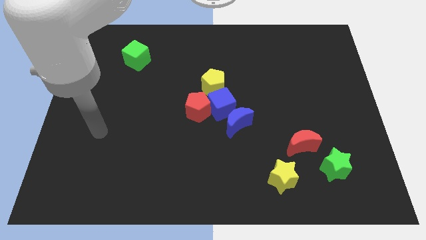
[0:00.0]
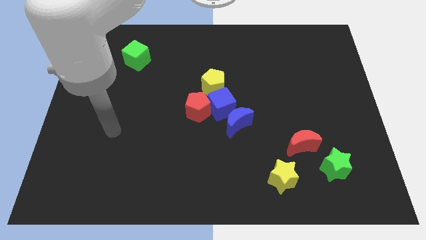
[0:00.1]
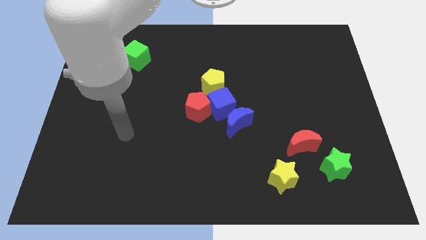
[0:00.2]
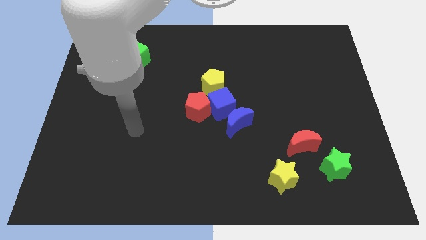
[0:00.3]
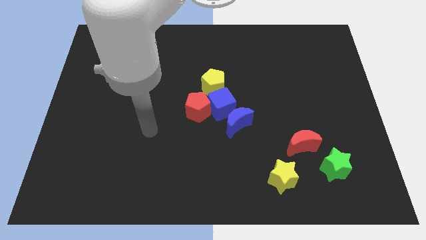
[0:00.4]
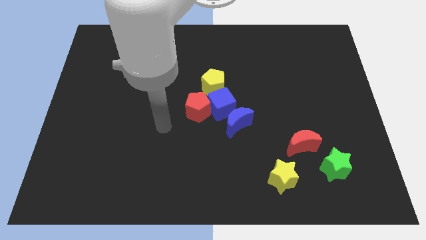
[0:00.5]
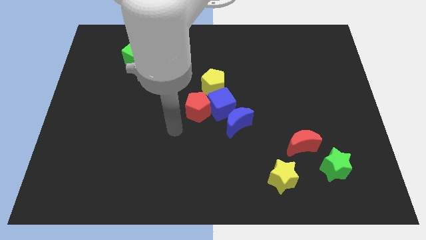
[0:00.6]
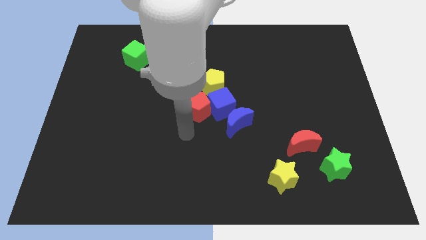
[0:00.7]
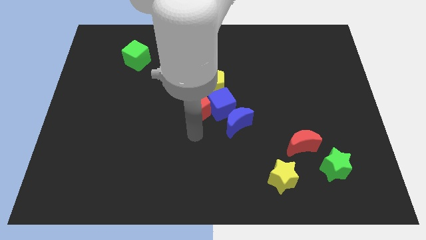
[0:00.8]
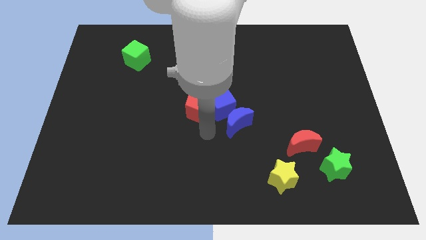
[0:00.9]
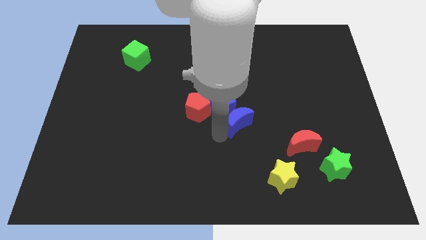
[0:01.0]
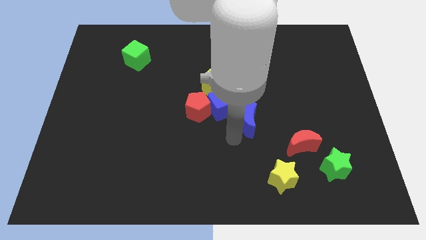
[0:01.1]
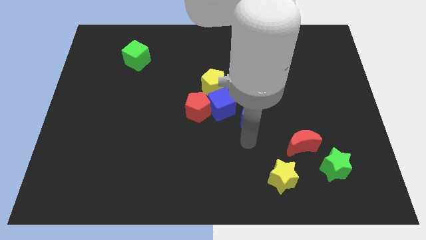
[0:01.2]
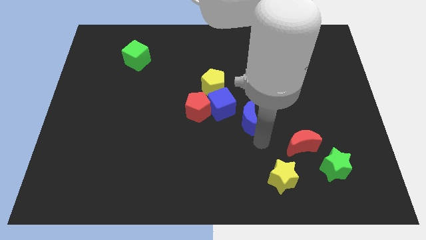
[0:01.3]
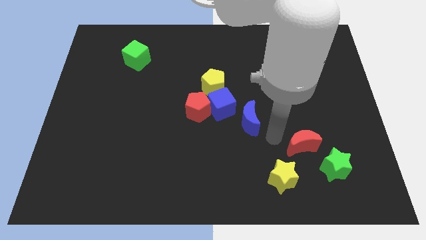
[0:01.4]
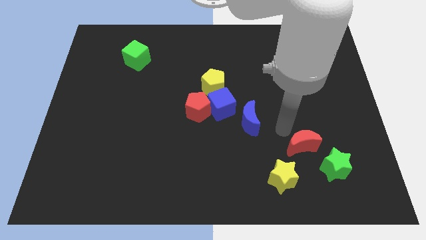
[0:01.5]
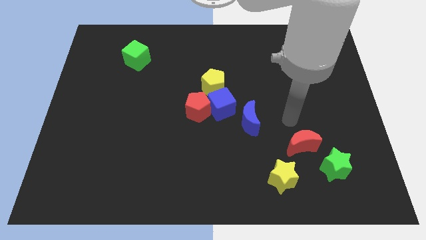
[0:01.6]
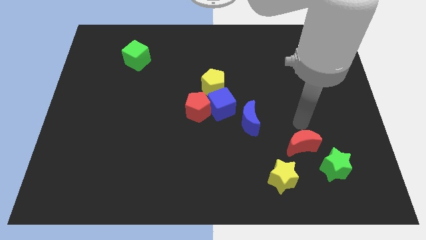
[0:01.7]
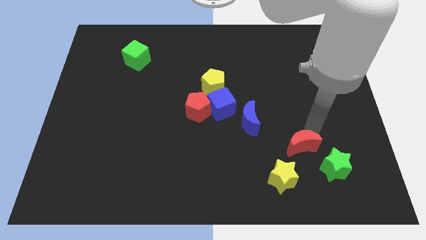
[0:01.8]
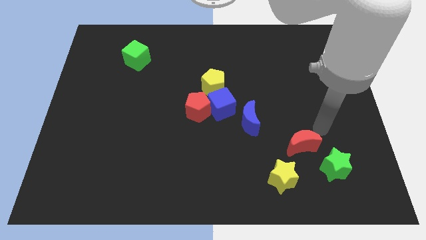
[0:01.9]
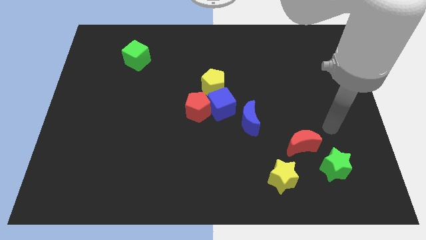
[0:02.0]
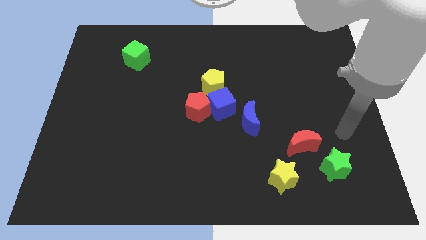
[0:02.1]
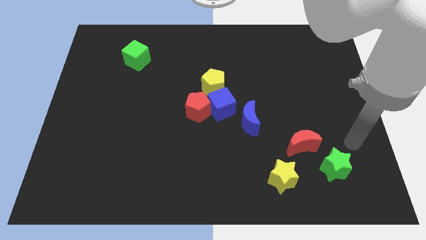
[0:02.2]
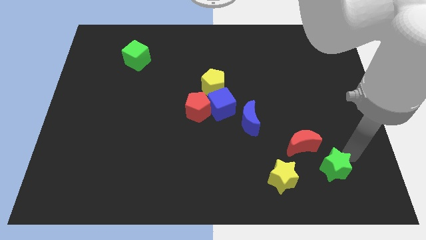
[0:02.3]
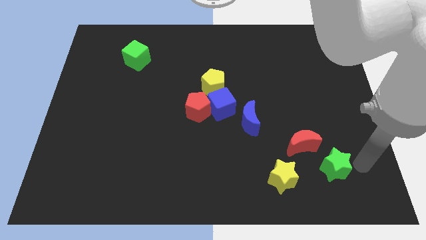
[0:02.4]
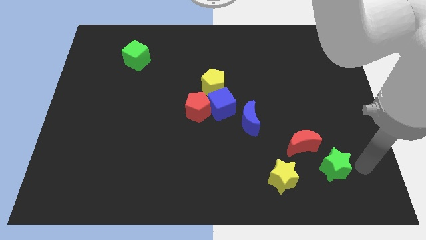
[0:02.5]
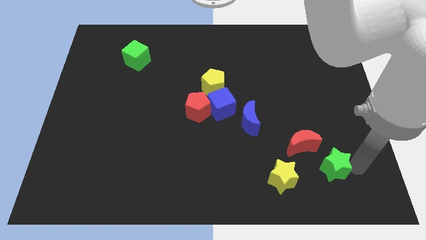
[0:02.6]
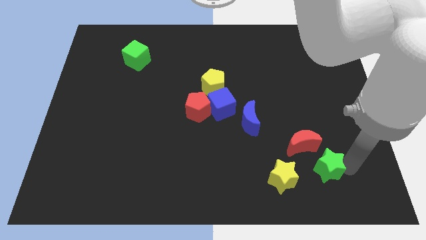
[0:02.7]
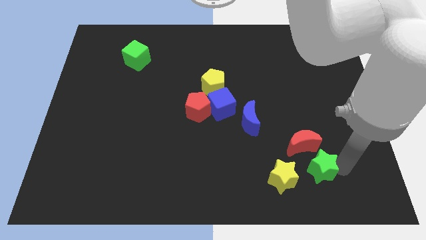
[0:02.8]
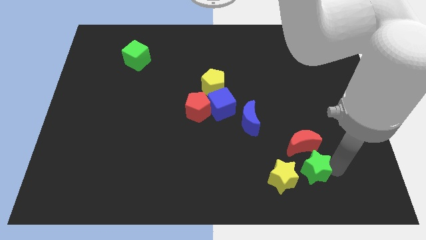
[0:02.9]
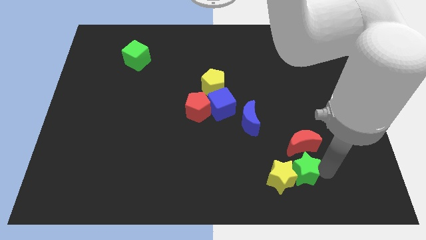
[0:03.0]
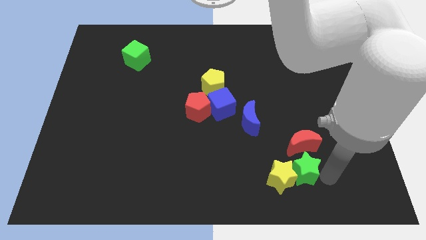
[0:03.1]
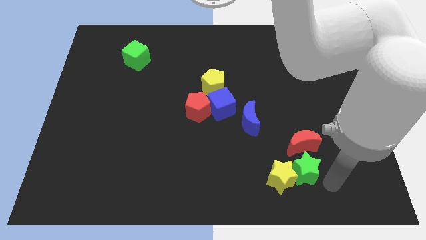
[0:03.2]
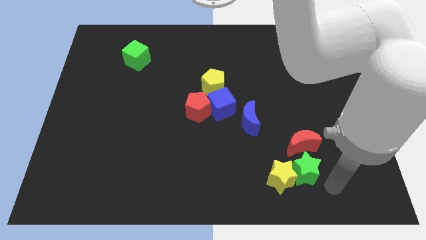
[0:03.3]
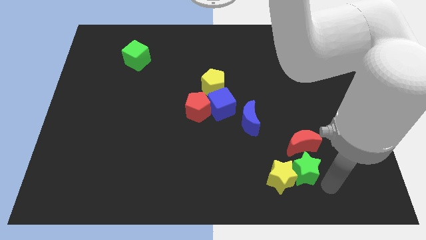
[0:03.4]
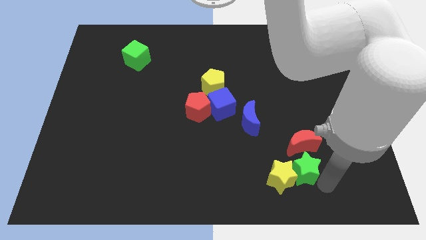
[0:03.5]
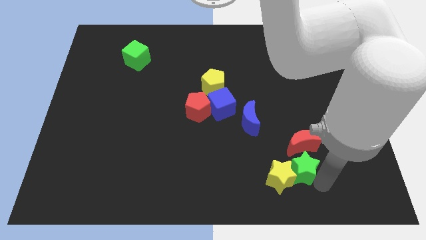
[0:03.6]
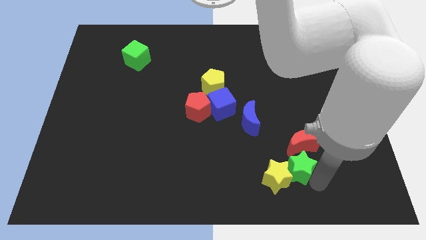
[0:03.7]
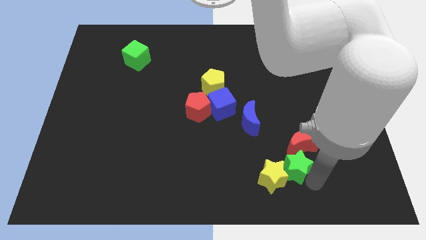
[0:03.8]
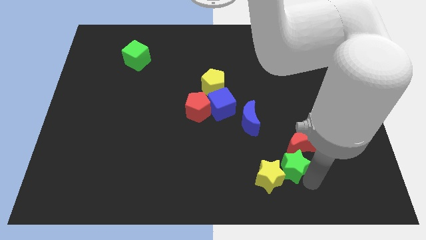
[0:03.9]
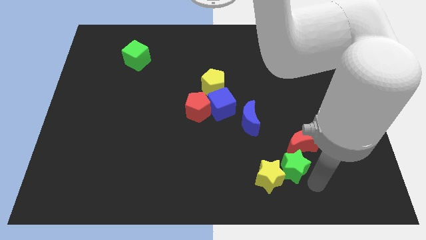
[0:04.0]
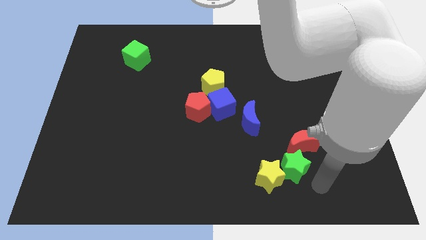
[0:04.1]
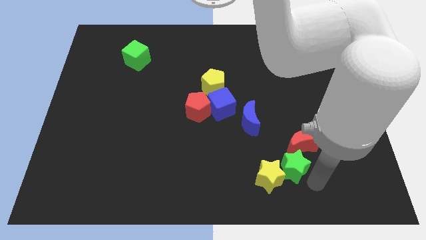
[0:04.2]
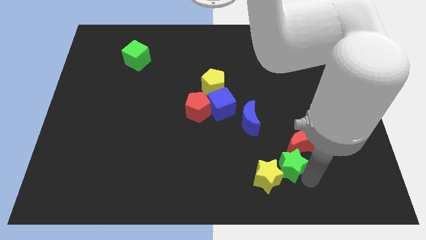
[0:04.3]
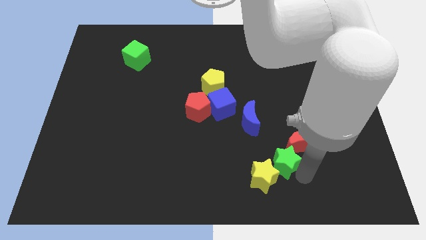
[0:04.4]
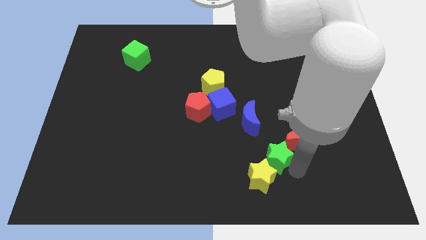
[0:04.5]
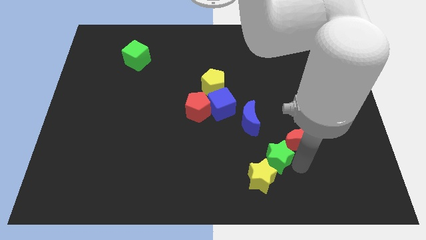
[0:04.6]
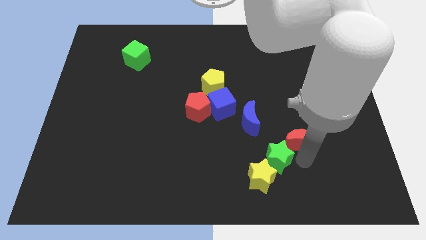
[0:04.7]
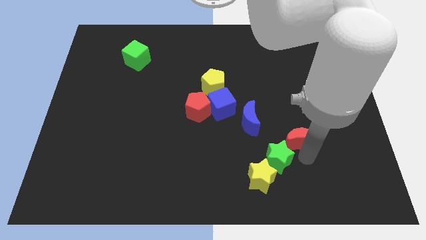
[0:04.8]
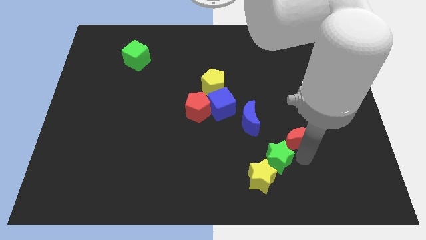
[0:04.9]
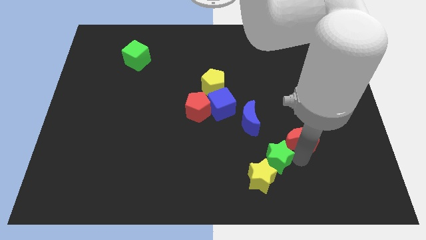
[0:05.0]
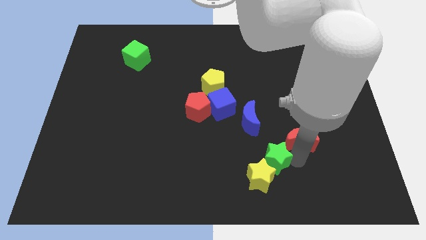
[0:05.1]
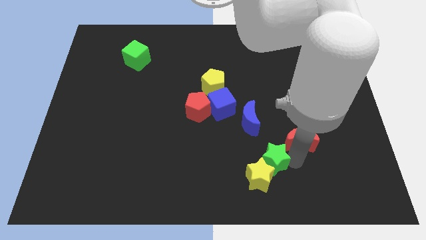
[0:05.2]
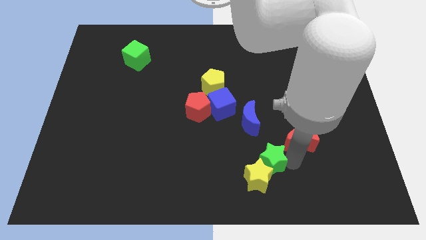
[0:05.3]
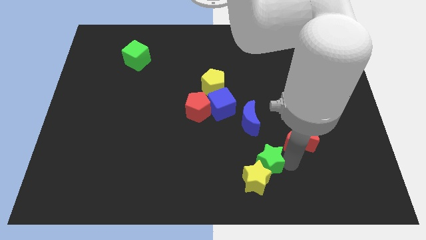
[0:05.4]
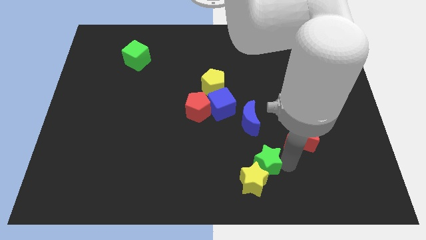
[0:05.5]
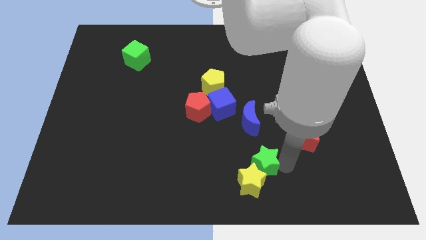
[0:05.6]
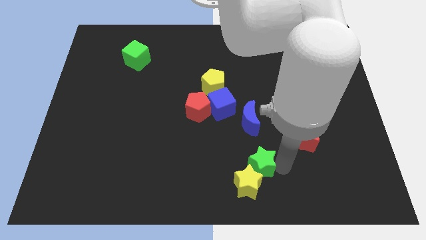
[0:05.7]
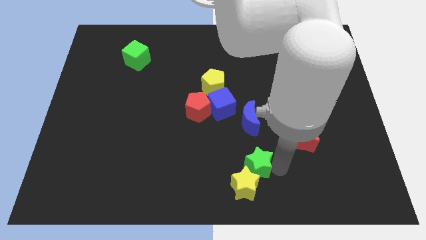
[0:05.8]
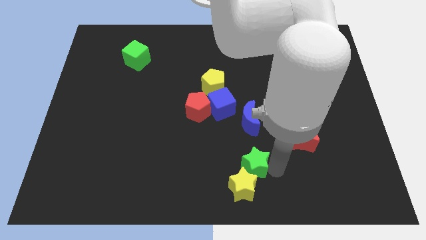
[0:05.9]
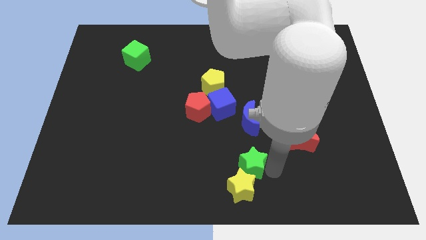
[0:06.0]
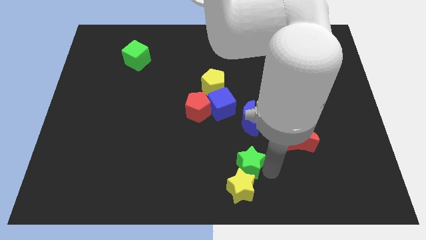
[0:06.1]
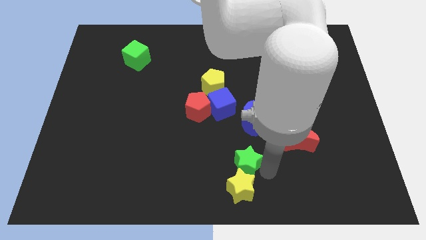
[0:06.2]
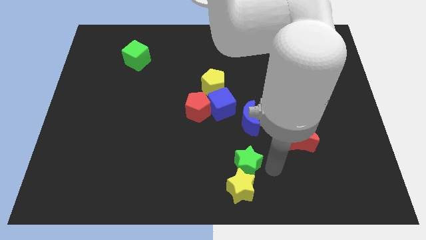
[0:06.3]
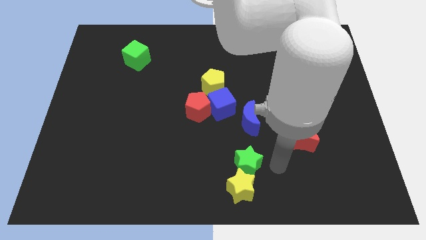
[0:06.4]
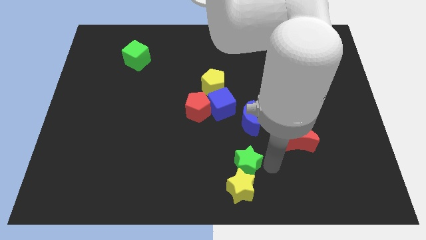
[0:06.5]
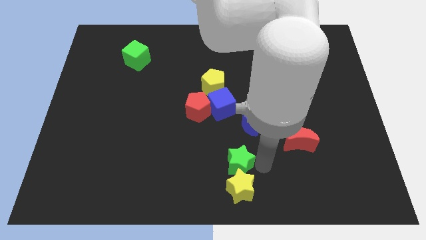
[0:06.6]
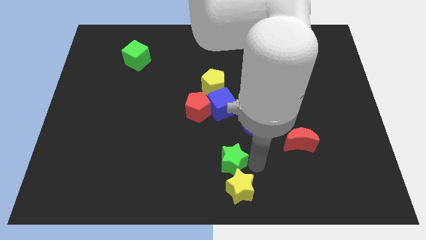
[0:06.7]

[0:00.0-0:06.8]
move the green star left

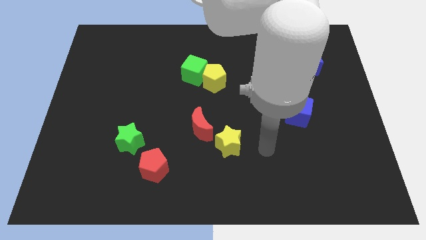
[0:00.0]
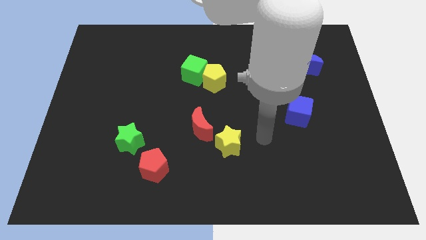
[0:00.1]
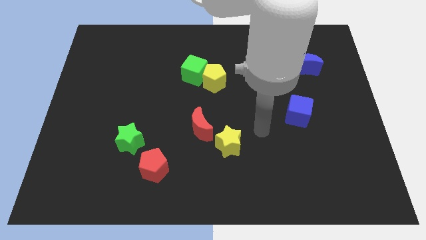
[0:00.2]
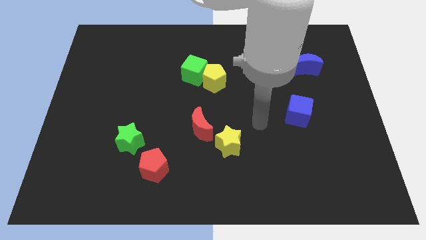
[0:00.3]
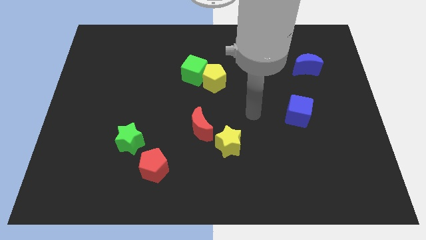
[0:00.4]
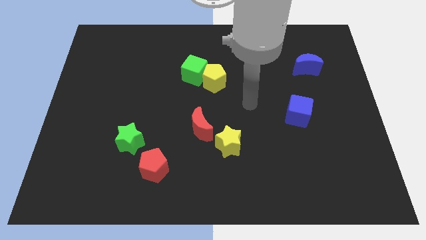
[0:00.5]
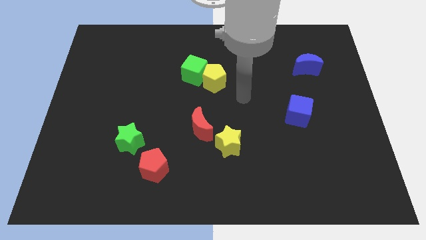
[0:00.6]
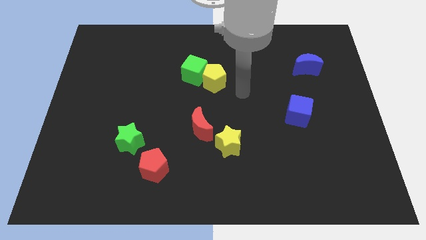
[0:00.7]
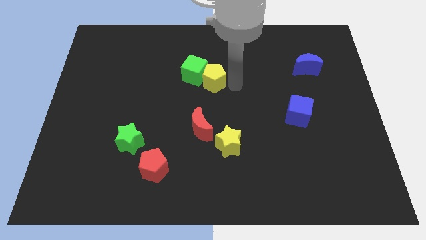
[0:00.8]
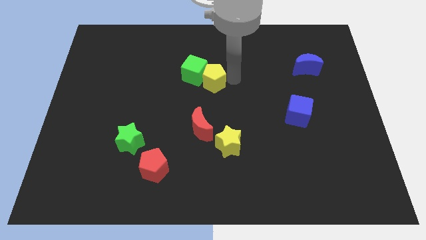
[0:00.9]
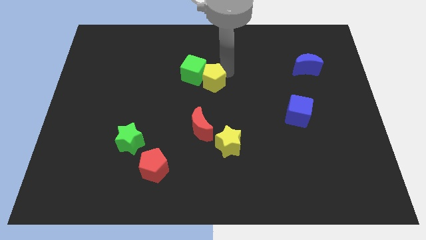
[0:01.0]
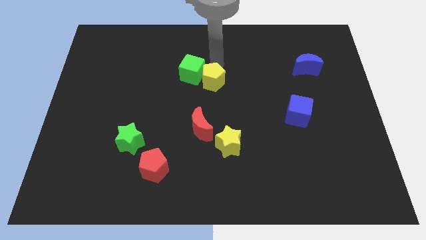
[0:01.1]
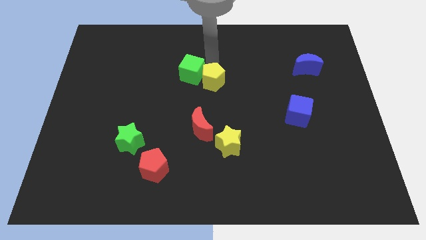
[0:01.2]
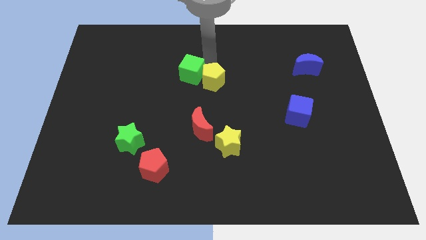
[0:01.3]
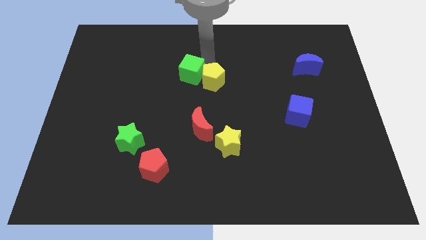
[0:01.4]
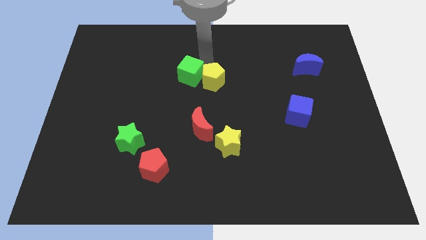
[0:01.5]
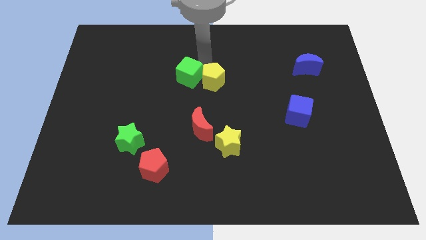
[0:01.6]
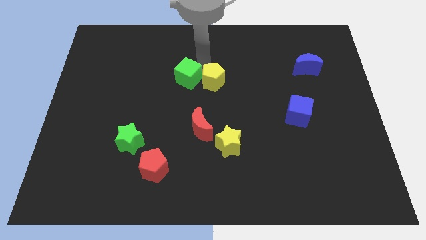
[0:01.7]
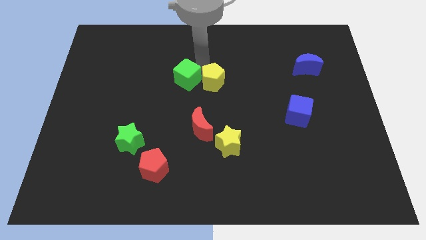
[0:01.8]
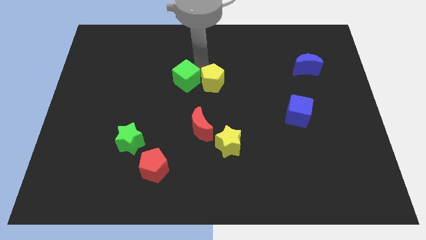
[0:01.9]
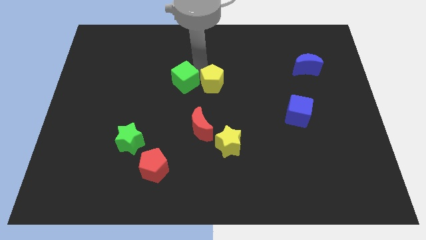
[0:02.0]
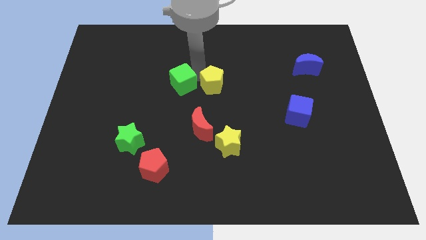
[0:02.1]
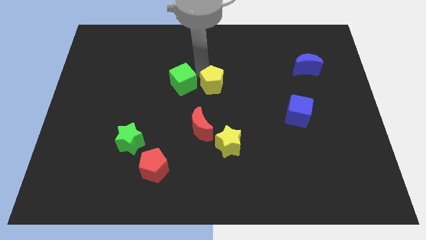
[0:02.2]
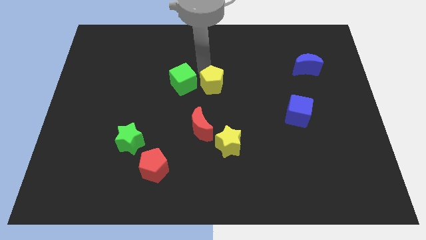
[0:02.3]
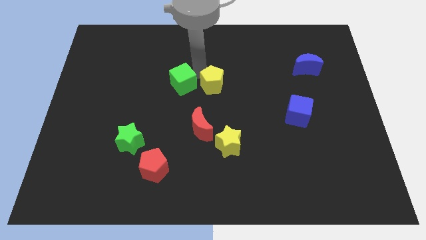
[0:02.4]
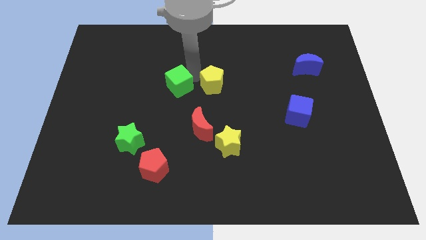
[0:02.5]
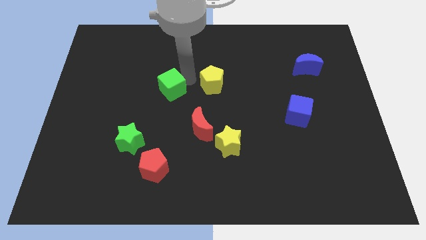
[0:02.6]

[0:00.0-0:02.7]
move the green cube somewhat down and then left
